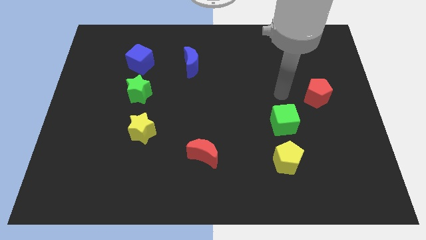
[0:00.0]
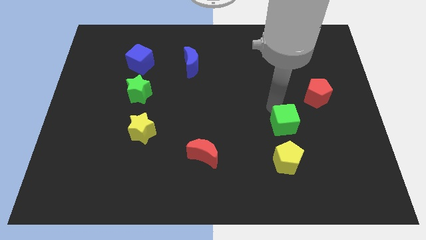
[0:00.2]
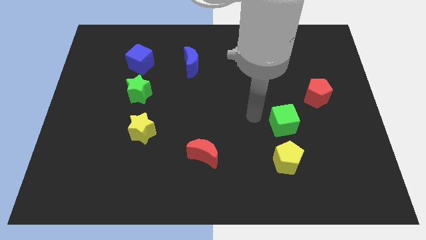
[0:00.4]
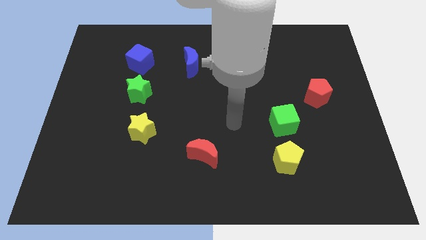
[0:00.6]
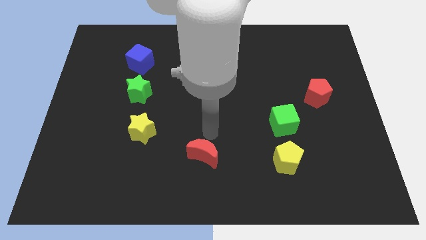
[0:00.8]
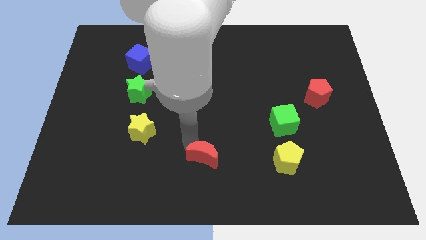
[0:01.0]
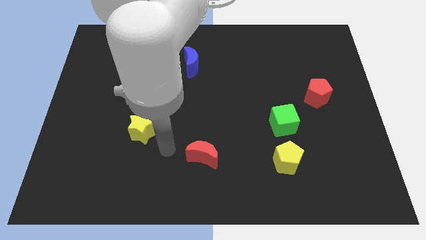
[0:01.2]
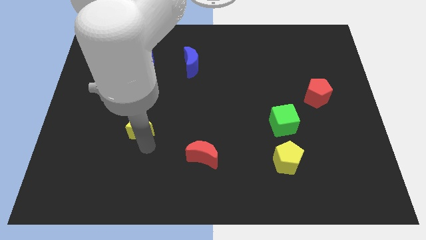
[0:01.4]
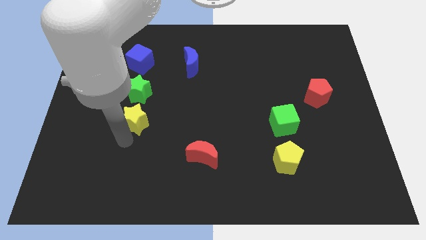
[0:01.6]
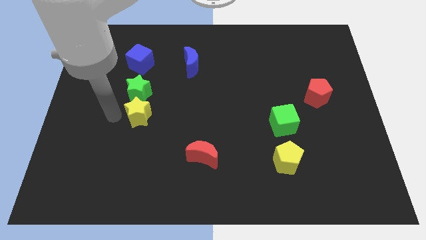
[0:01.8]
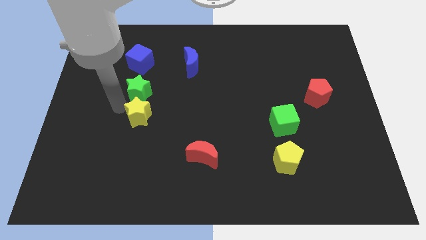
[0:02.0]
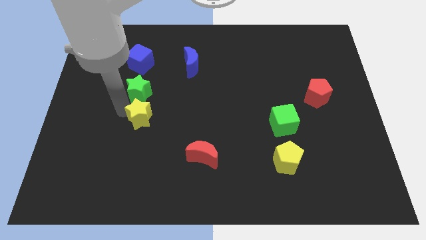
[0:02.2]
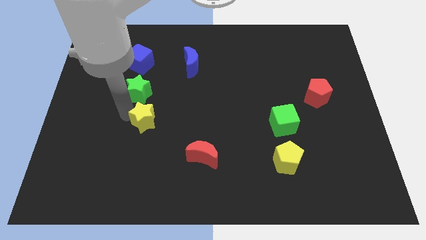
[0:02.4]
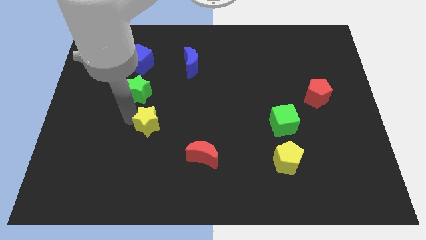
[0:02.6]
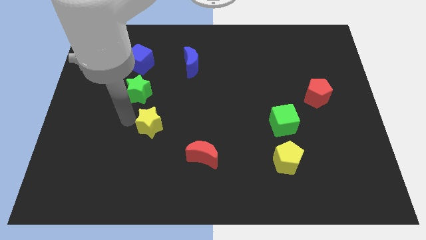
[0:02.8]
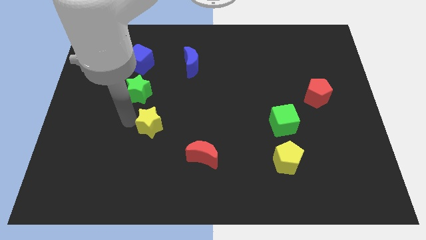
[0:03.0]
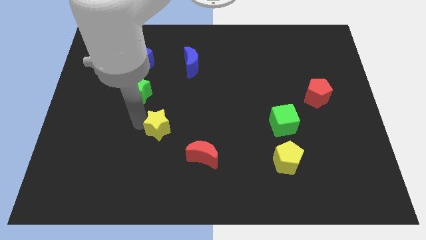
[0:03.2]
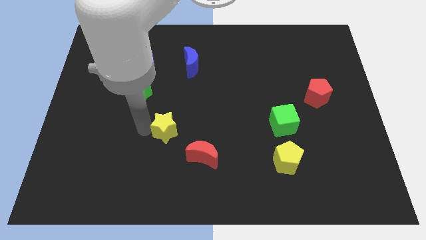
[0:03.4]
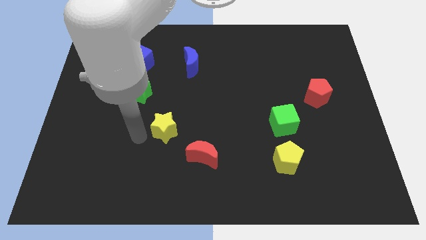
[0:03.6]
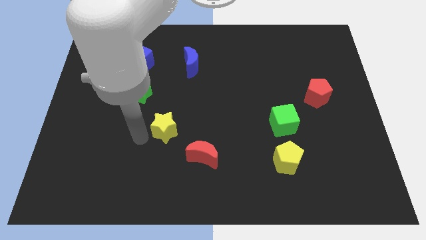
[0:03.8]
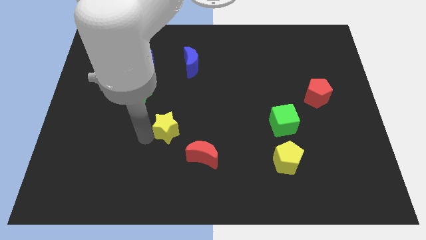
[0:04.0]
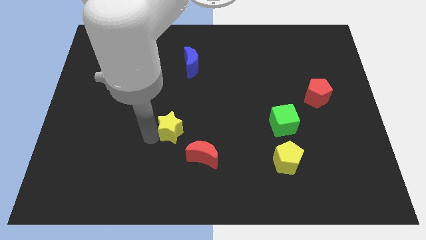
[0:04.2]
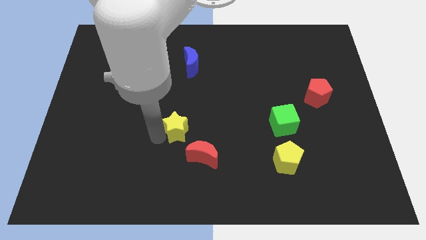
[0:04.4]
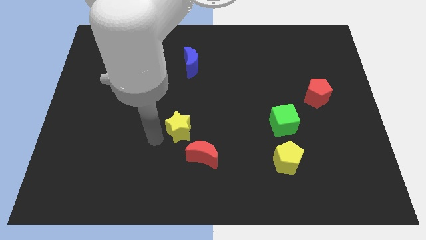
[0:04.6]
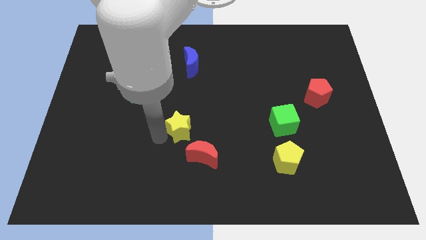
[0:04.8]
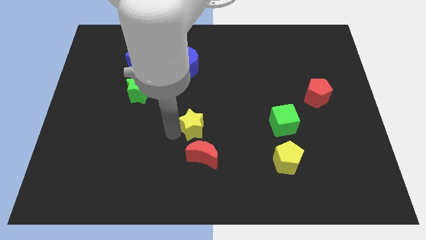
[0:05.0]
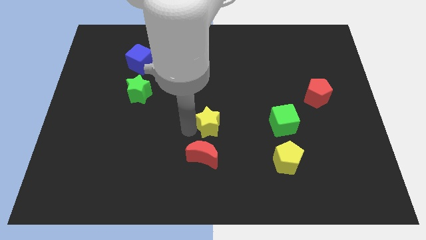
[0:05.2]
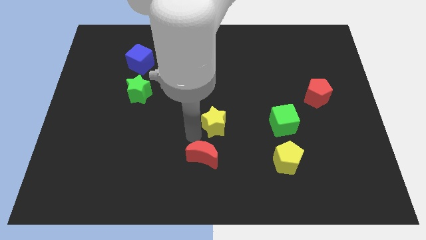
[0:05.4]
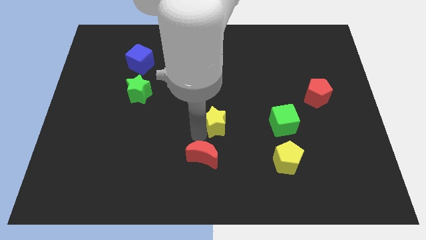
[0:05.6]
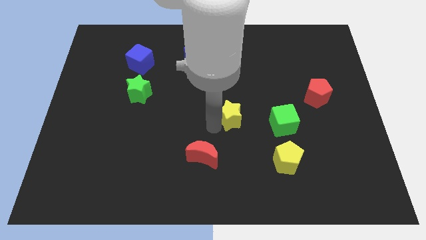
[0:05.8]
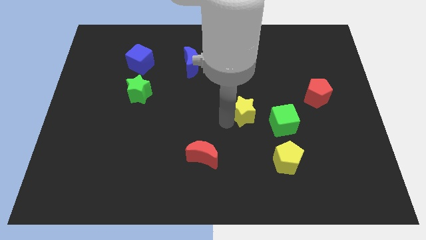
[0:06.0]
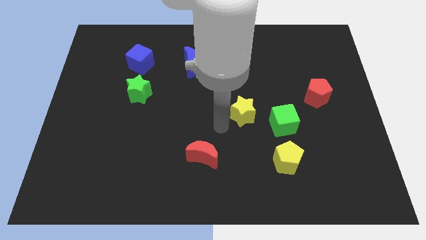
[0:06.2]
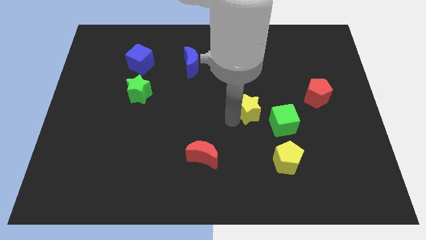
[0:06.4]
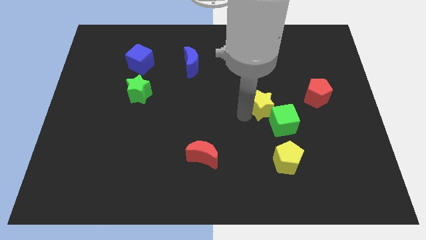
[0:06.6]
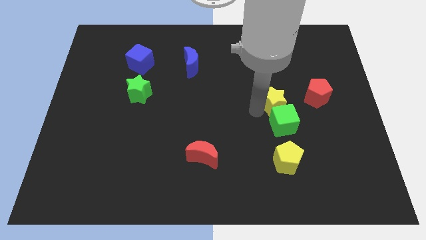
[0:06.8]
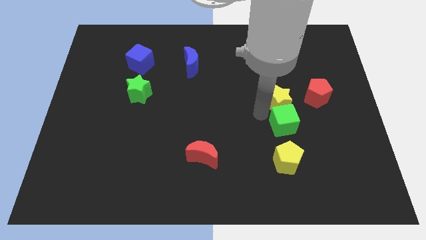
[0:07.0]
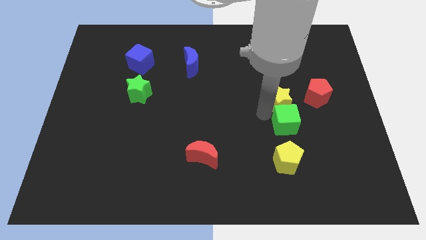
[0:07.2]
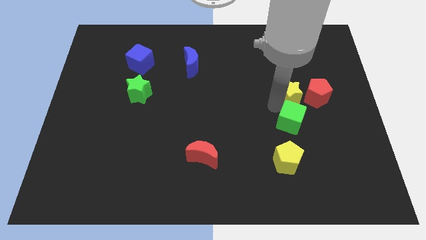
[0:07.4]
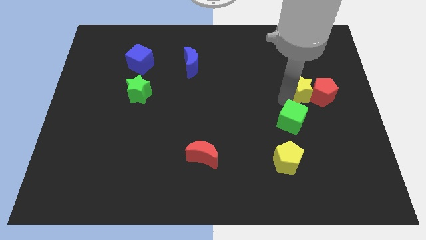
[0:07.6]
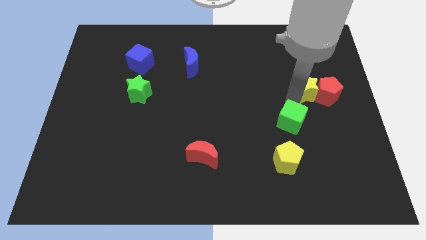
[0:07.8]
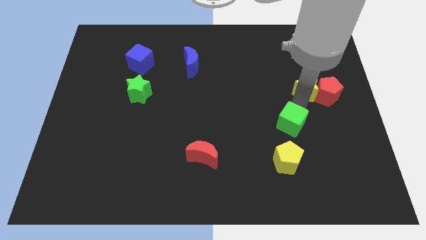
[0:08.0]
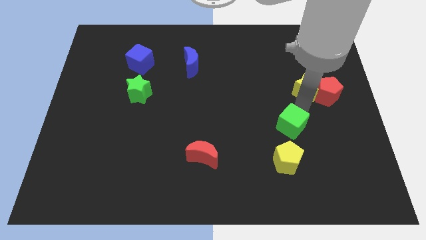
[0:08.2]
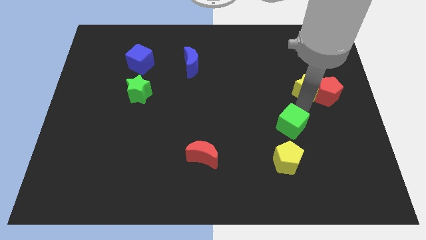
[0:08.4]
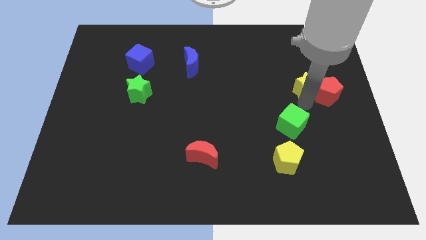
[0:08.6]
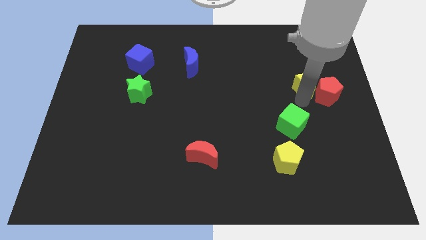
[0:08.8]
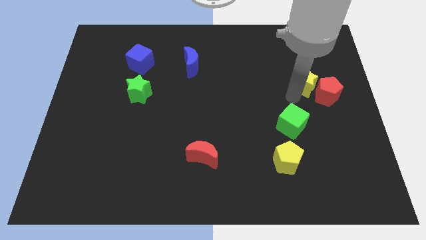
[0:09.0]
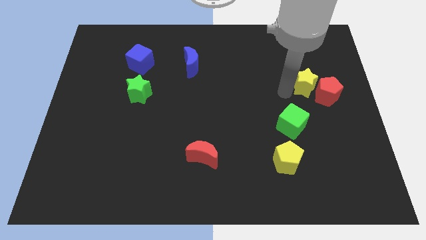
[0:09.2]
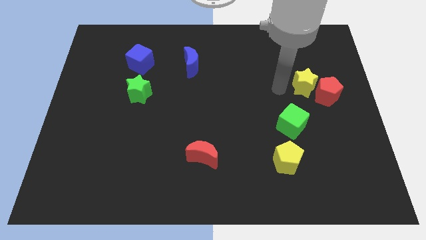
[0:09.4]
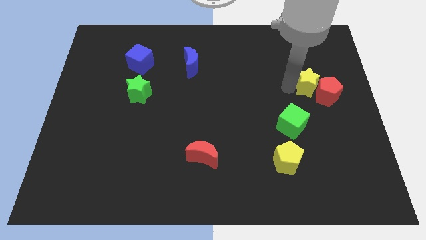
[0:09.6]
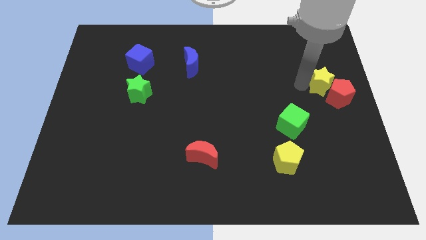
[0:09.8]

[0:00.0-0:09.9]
slide the yellow star to the right side of the board

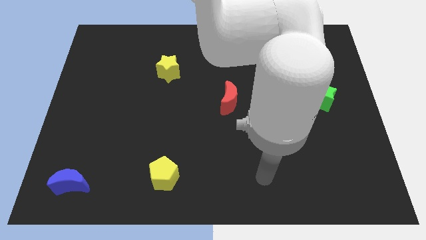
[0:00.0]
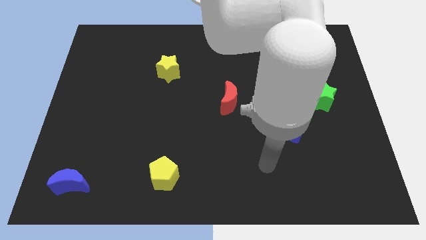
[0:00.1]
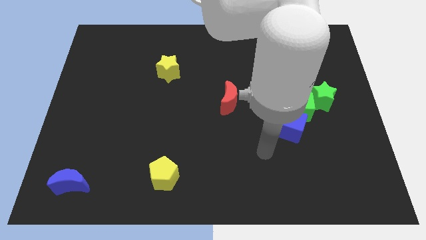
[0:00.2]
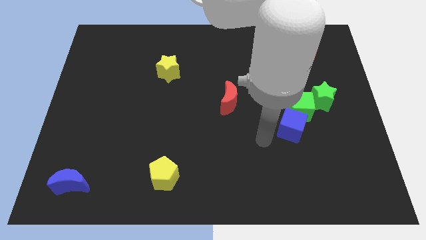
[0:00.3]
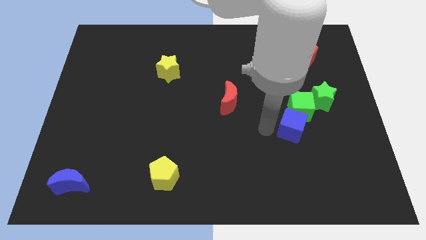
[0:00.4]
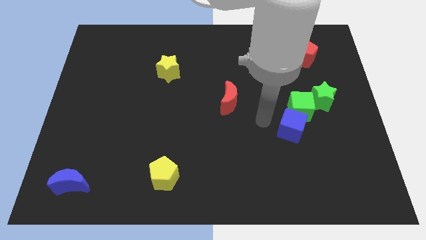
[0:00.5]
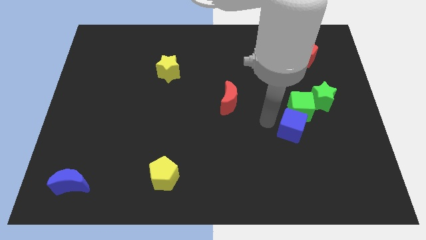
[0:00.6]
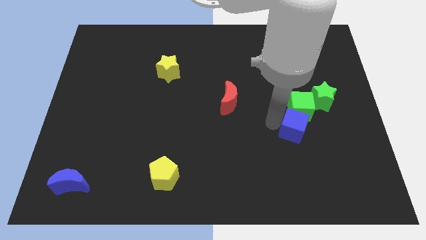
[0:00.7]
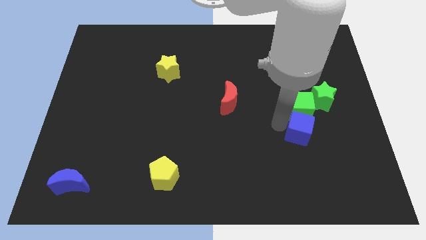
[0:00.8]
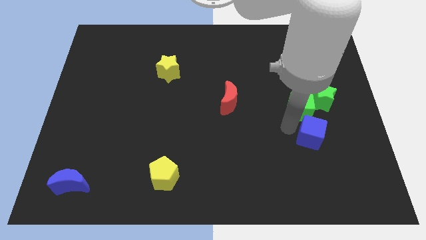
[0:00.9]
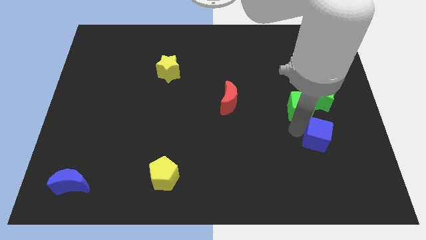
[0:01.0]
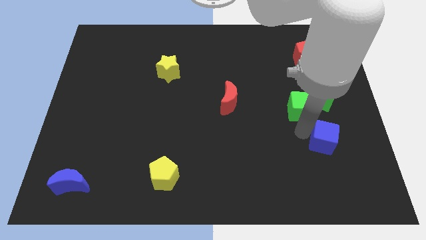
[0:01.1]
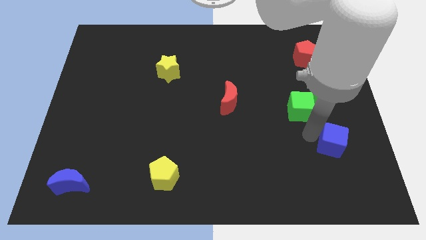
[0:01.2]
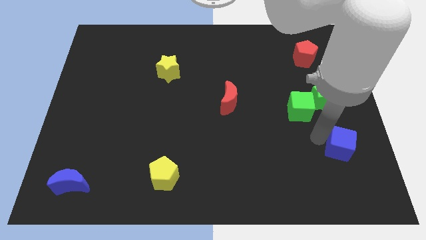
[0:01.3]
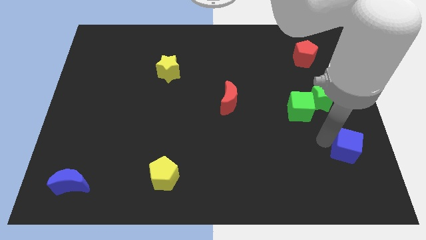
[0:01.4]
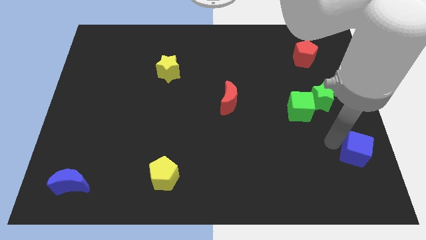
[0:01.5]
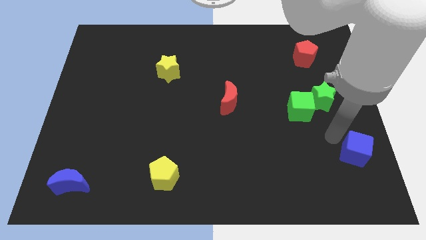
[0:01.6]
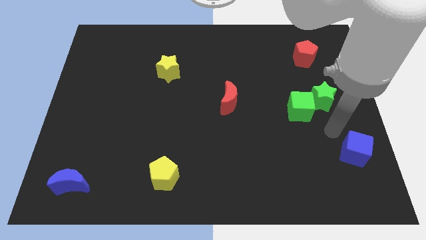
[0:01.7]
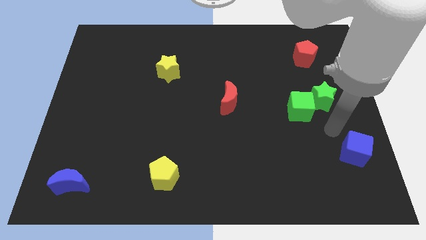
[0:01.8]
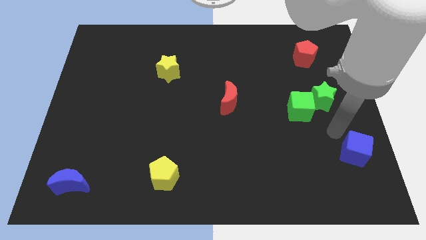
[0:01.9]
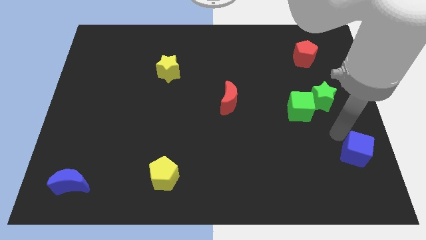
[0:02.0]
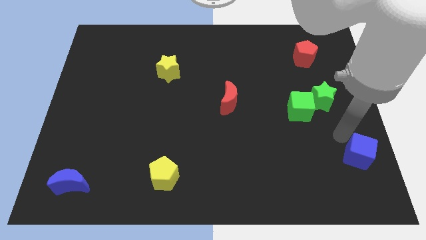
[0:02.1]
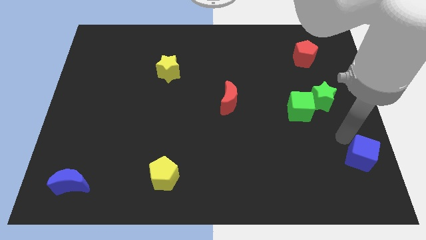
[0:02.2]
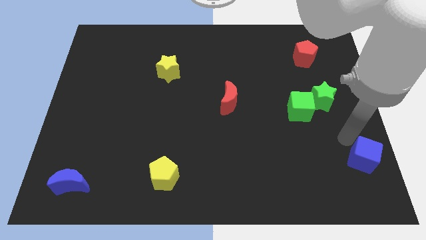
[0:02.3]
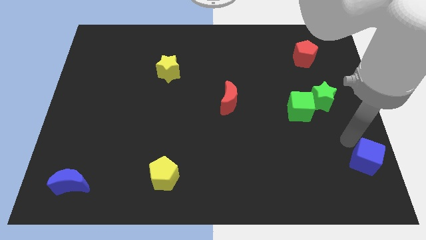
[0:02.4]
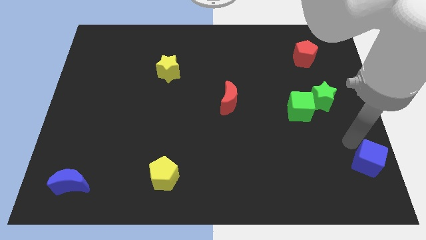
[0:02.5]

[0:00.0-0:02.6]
put the blue cube to the bottom right
